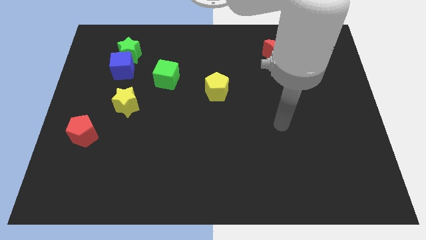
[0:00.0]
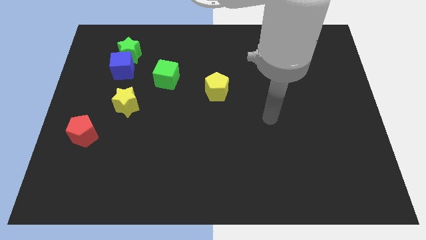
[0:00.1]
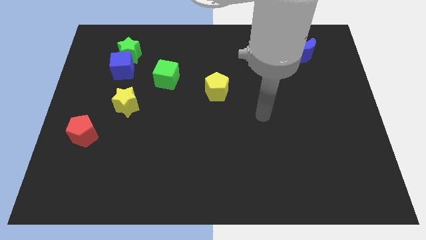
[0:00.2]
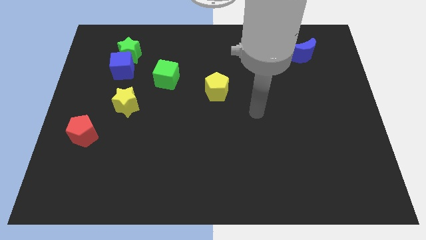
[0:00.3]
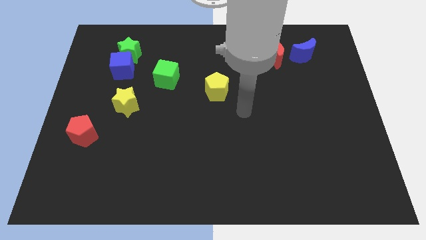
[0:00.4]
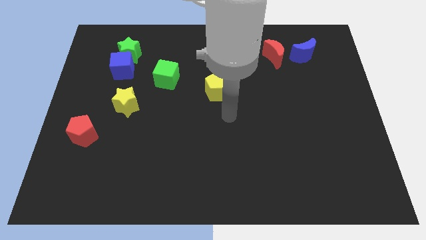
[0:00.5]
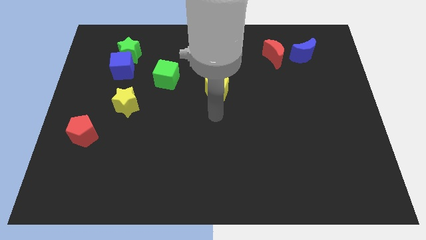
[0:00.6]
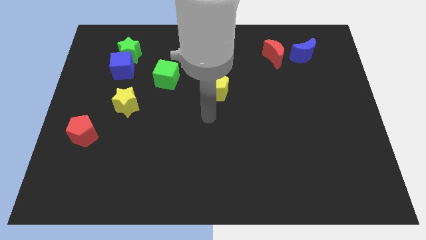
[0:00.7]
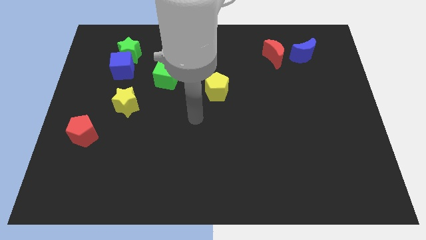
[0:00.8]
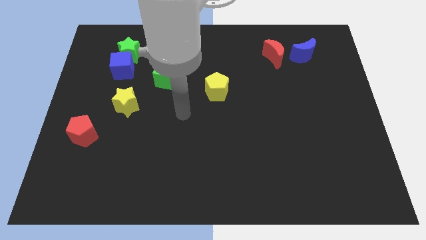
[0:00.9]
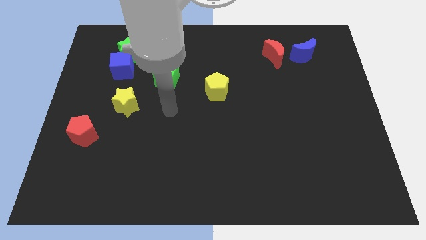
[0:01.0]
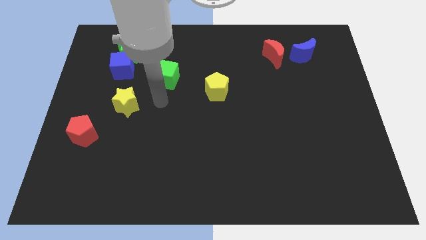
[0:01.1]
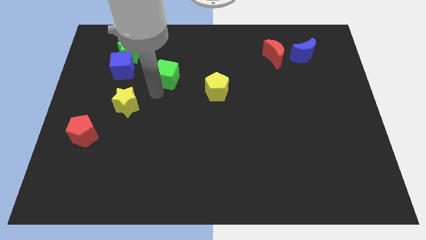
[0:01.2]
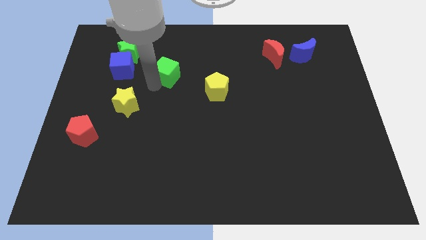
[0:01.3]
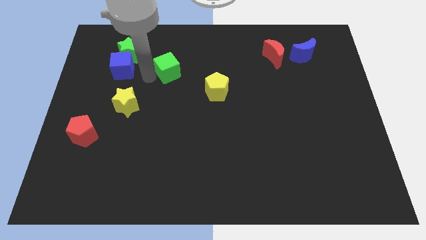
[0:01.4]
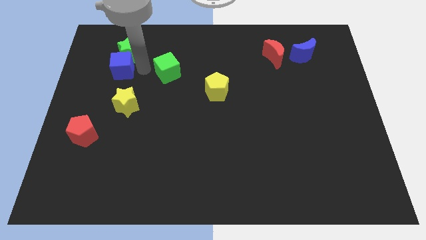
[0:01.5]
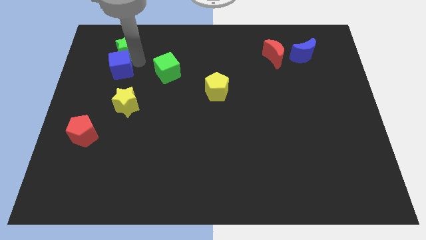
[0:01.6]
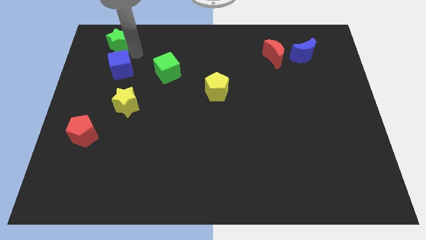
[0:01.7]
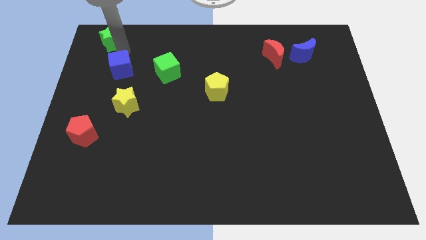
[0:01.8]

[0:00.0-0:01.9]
pull the blue cube apart from the green star

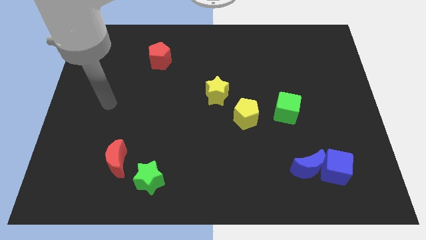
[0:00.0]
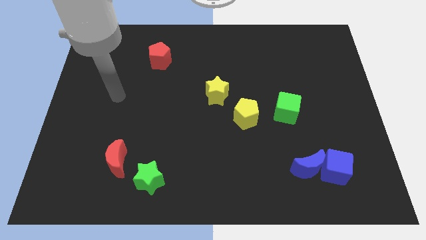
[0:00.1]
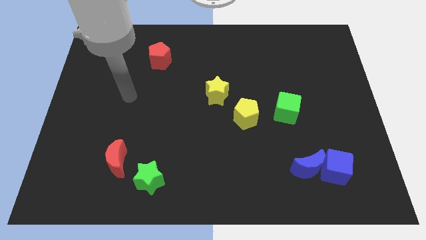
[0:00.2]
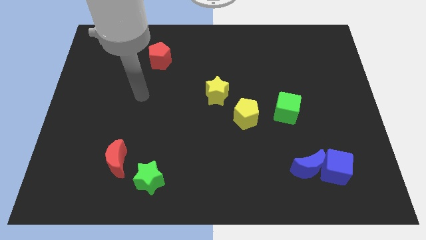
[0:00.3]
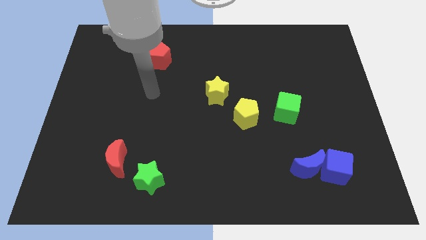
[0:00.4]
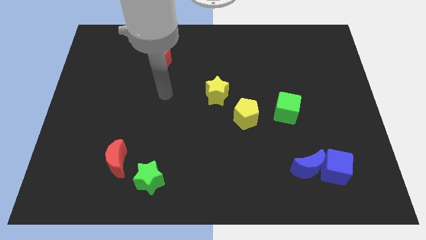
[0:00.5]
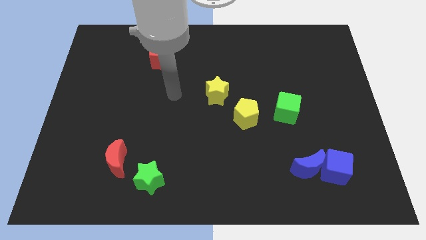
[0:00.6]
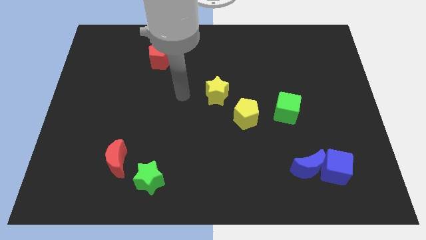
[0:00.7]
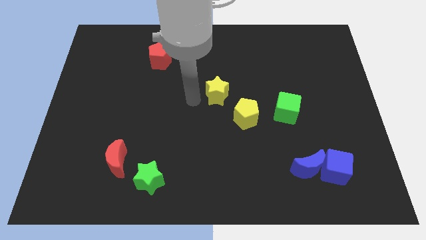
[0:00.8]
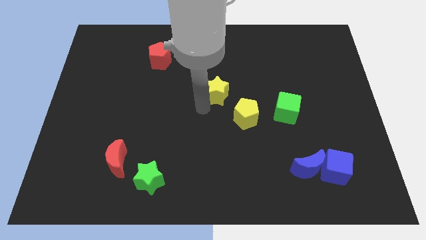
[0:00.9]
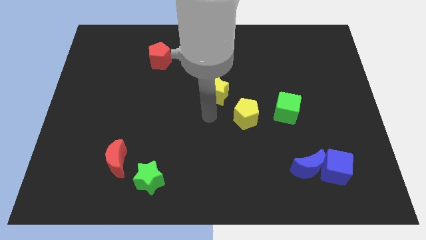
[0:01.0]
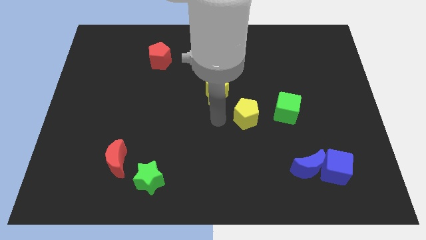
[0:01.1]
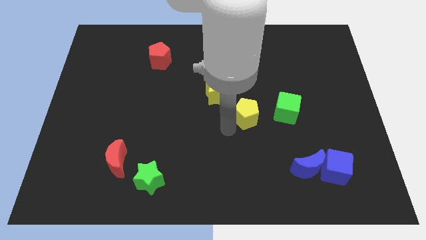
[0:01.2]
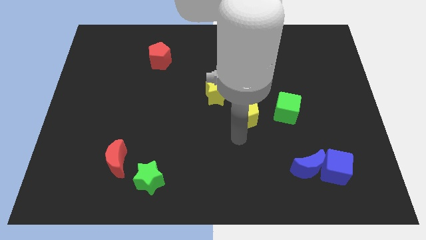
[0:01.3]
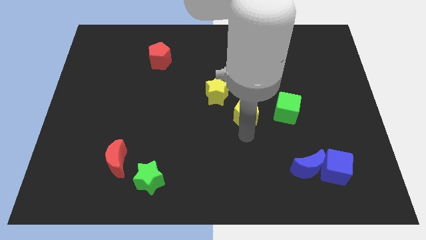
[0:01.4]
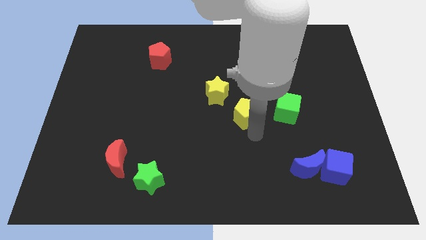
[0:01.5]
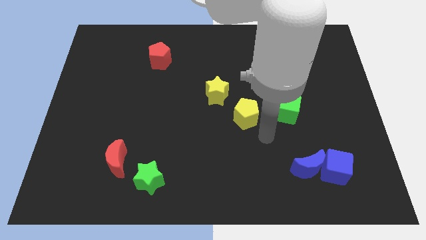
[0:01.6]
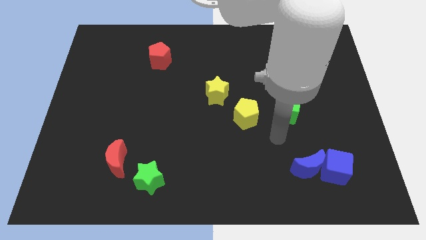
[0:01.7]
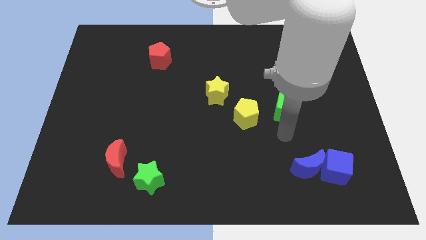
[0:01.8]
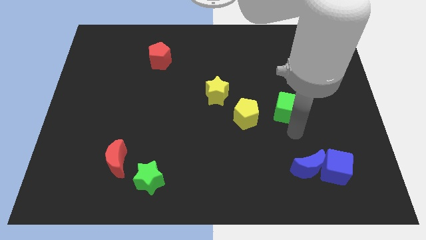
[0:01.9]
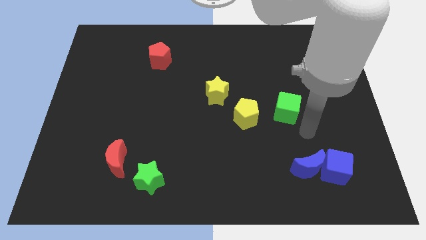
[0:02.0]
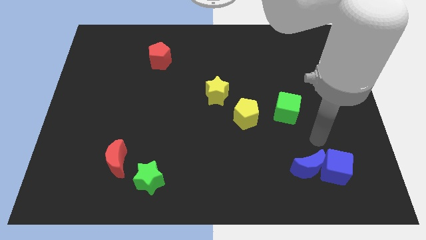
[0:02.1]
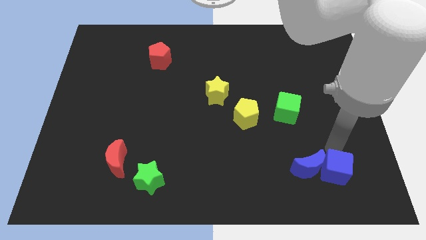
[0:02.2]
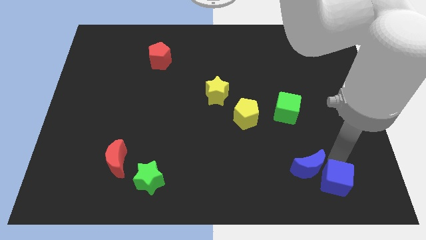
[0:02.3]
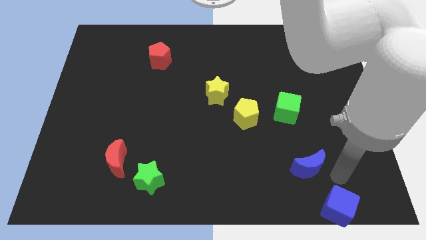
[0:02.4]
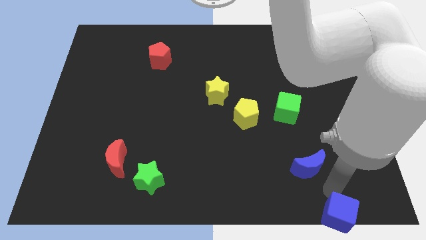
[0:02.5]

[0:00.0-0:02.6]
pull the blue moon apart from the blue cube

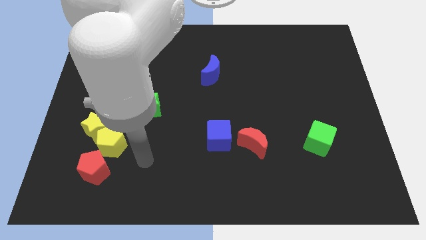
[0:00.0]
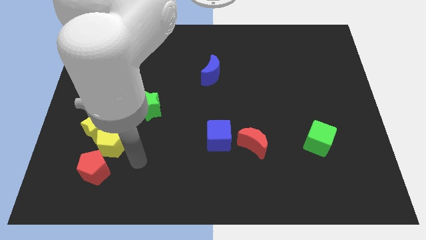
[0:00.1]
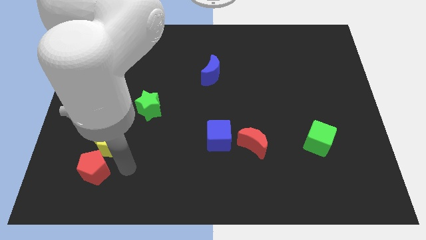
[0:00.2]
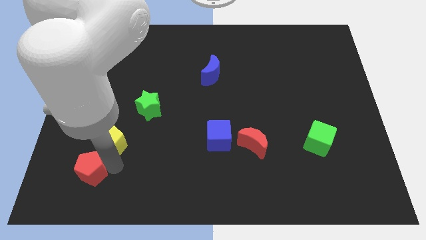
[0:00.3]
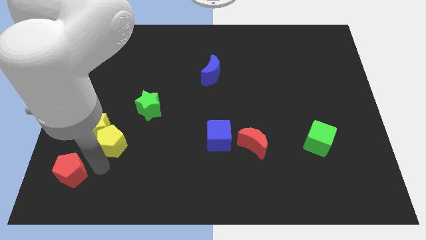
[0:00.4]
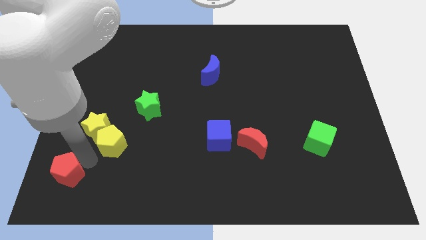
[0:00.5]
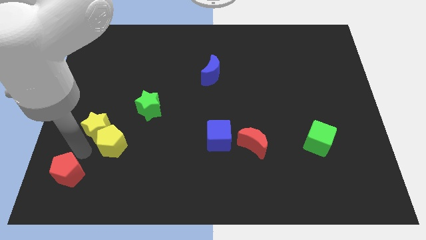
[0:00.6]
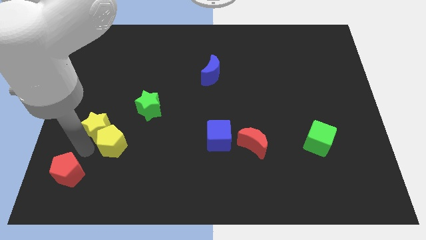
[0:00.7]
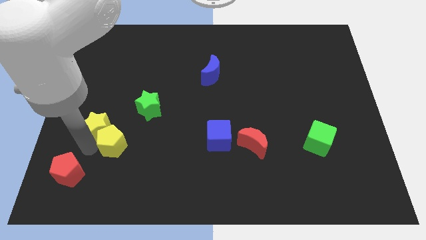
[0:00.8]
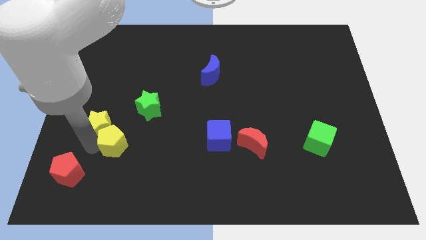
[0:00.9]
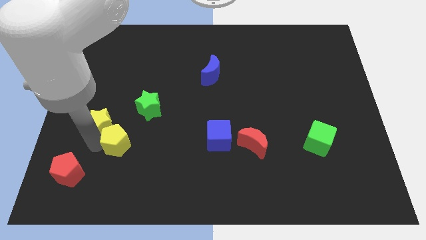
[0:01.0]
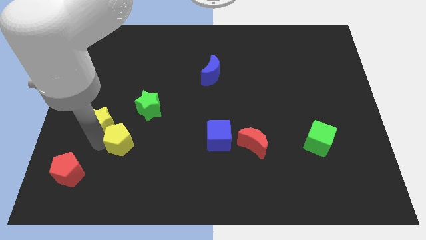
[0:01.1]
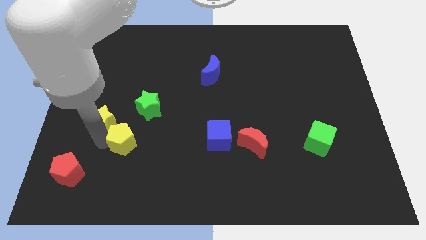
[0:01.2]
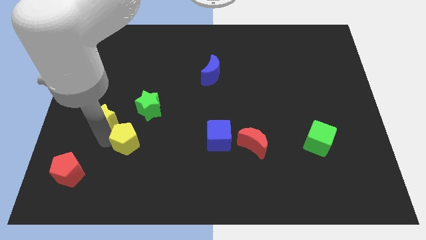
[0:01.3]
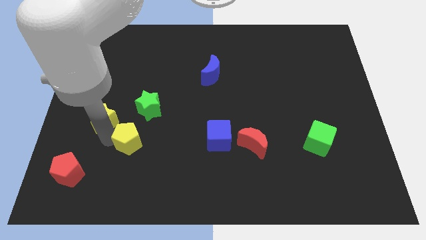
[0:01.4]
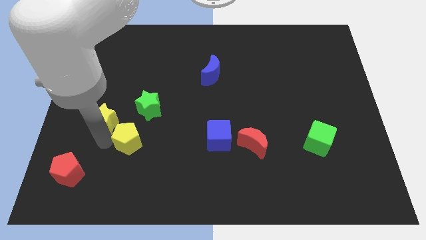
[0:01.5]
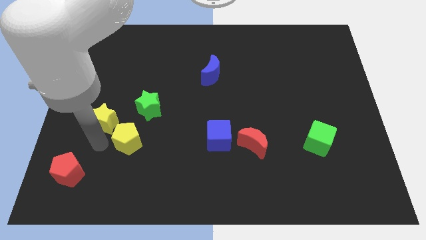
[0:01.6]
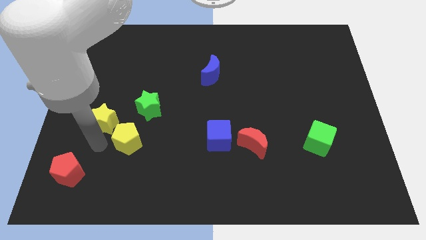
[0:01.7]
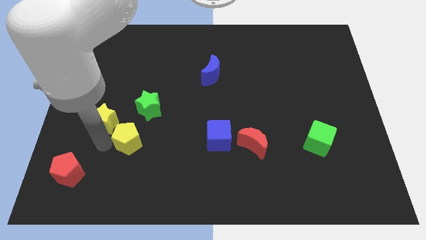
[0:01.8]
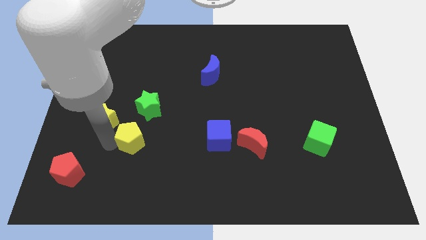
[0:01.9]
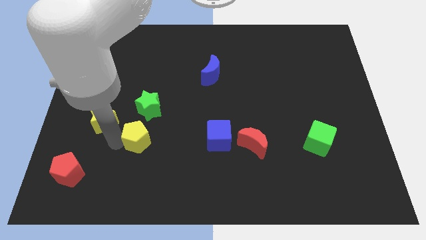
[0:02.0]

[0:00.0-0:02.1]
pull the yellow pentagon apart from the yellow star and red pentagon

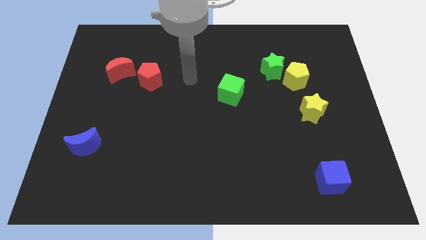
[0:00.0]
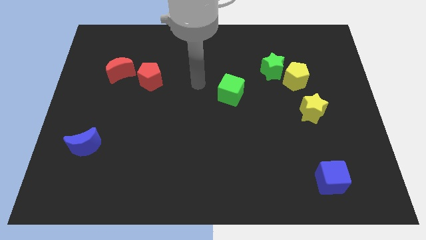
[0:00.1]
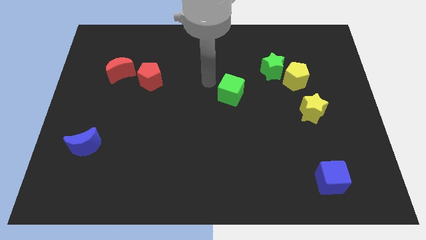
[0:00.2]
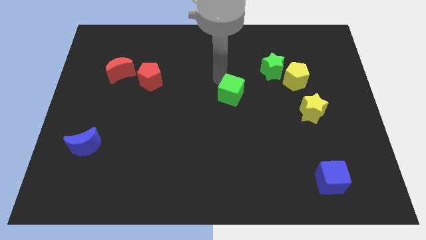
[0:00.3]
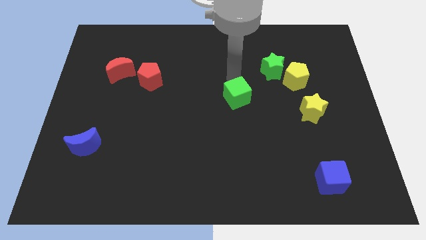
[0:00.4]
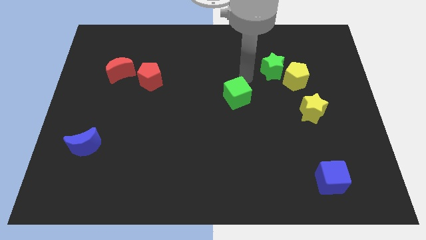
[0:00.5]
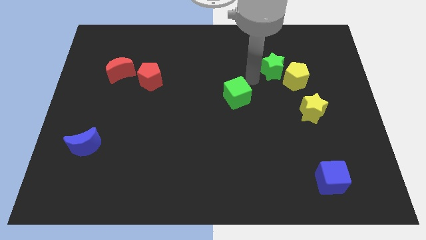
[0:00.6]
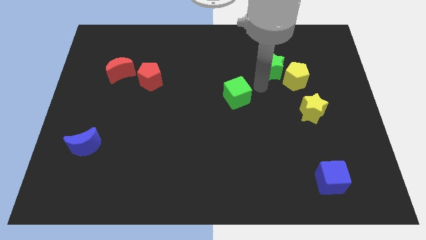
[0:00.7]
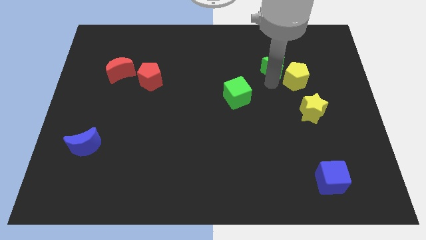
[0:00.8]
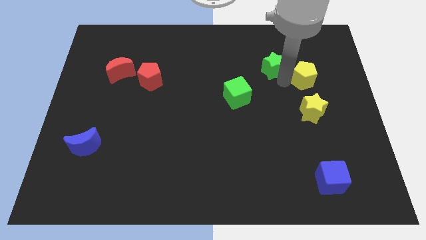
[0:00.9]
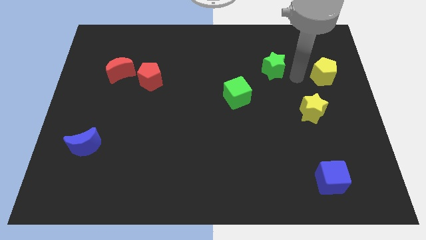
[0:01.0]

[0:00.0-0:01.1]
pull the green star apart from the yellow pentagon

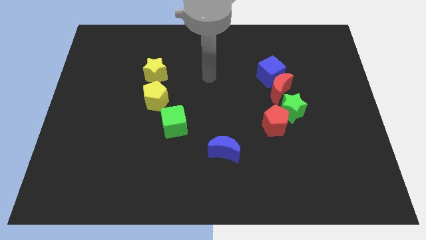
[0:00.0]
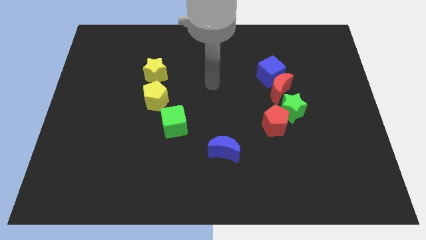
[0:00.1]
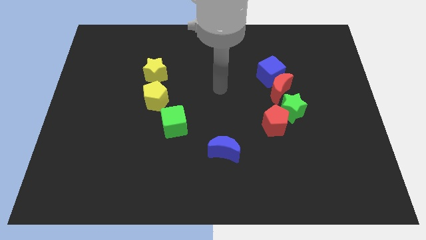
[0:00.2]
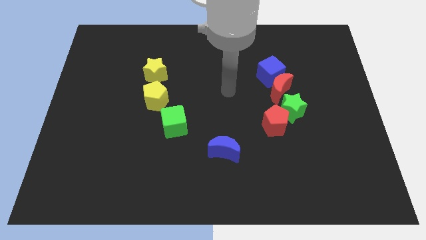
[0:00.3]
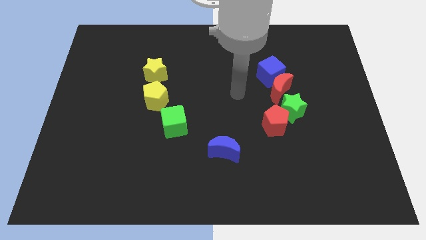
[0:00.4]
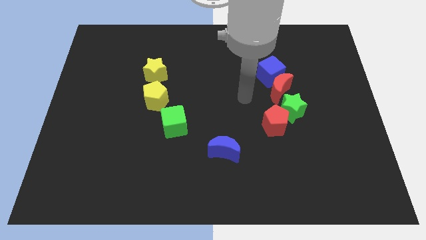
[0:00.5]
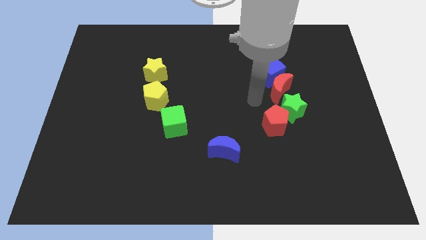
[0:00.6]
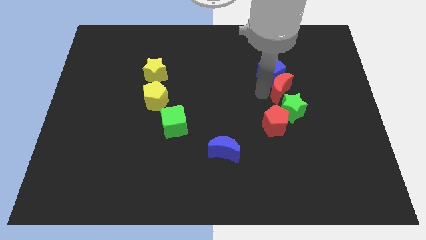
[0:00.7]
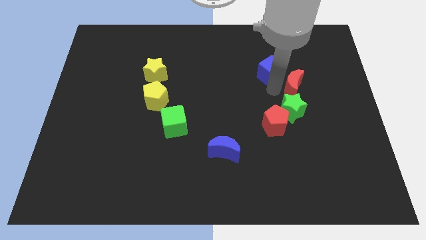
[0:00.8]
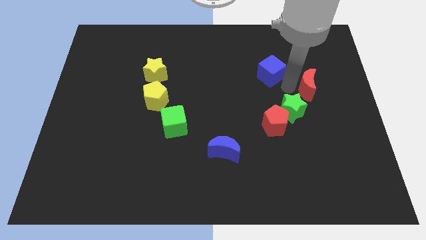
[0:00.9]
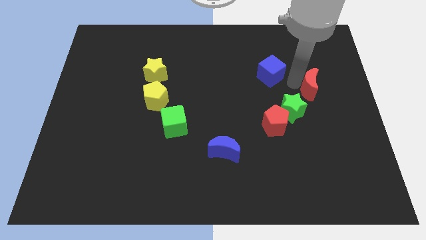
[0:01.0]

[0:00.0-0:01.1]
move the blue cube away from the red moon

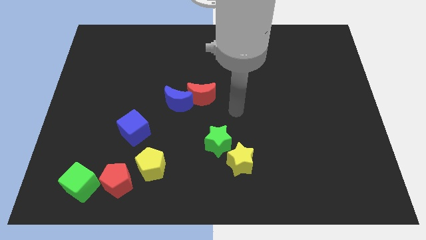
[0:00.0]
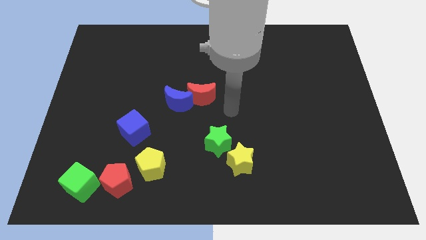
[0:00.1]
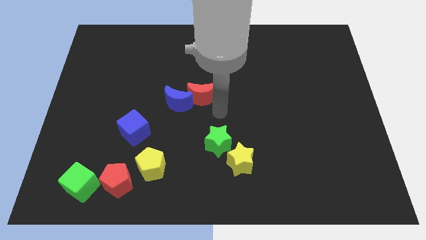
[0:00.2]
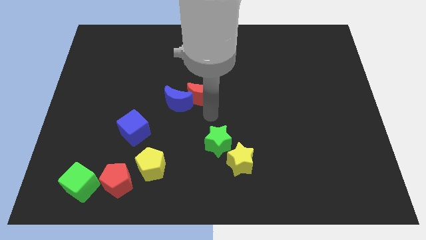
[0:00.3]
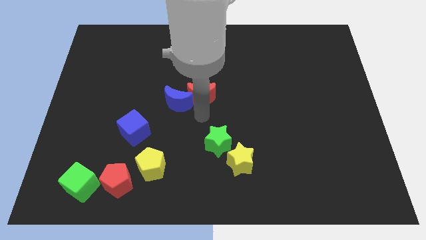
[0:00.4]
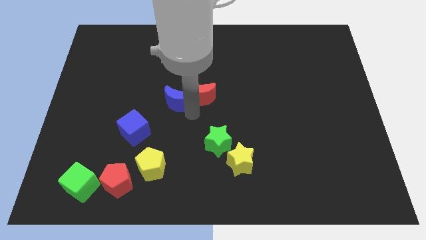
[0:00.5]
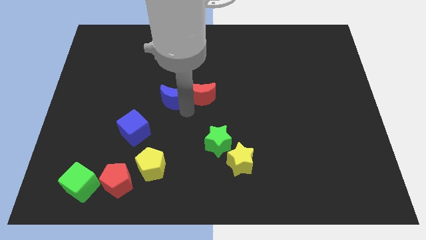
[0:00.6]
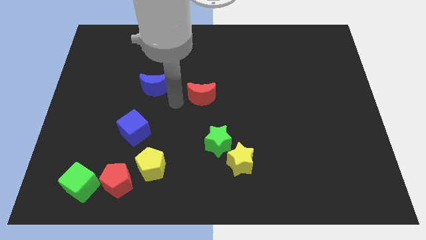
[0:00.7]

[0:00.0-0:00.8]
move the red moon away from the blue moon
